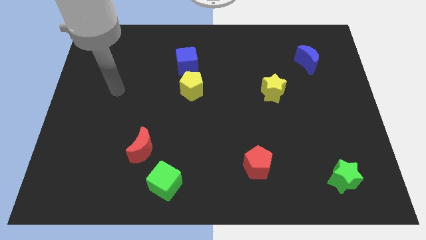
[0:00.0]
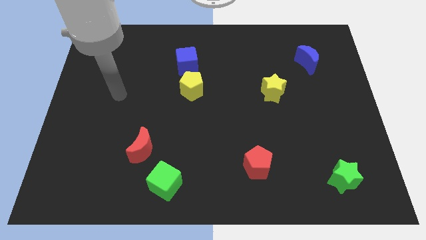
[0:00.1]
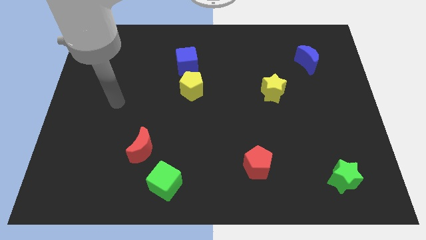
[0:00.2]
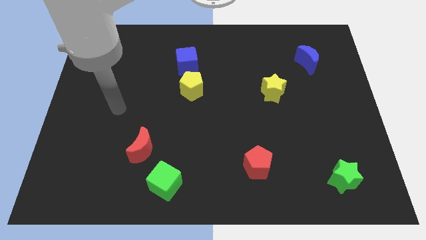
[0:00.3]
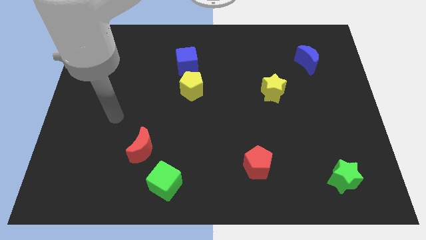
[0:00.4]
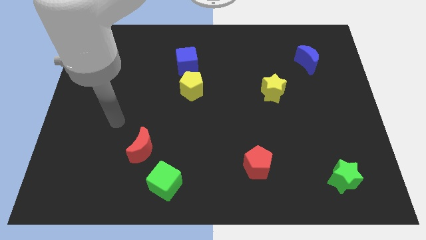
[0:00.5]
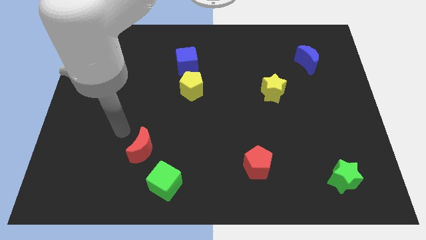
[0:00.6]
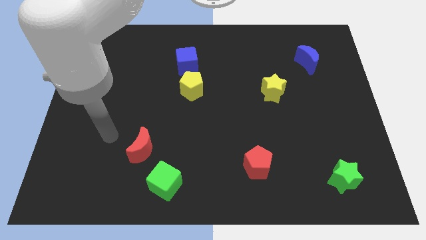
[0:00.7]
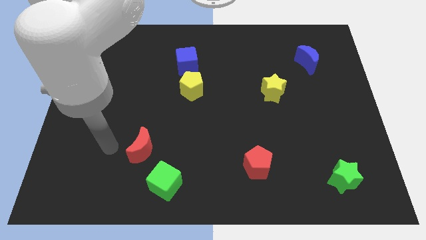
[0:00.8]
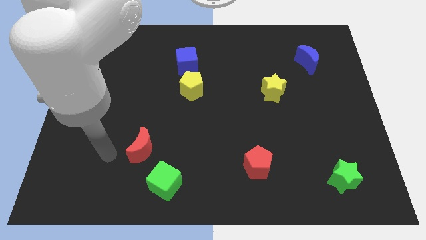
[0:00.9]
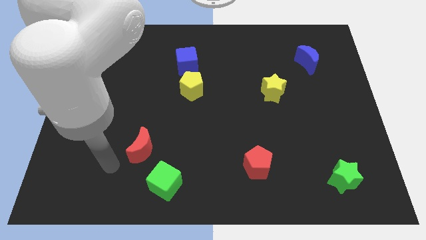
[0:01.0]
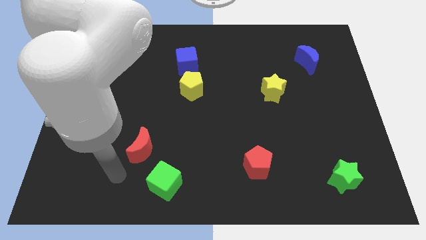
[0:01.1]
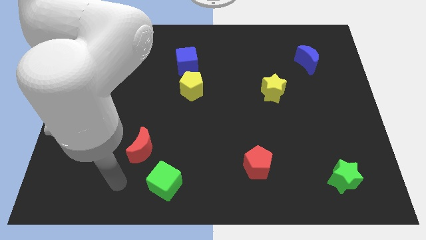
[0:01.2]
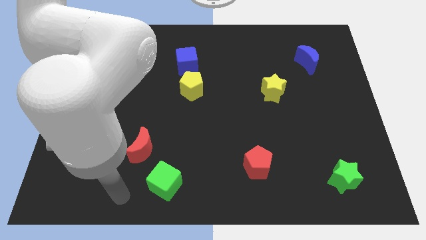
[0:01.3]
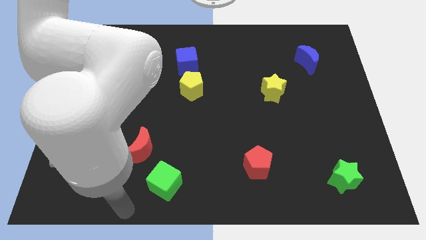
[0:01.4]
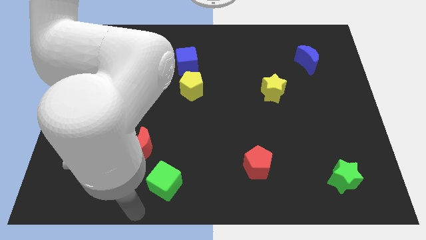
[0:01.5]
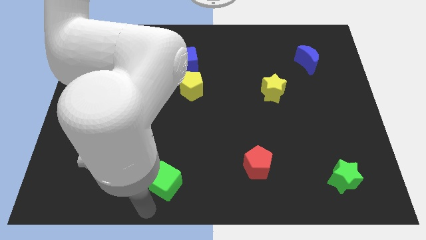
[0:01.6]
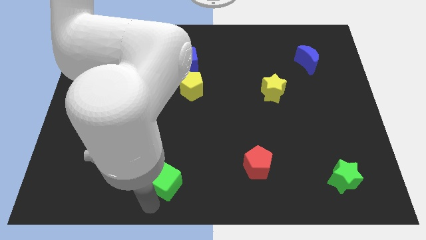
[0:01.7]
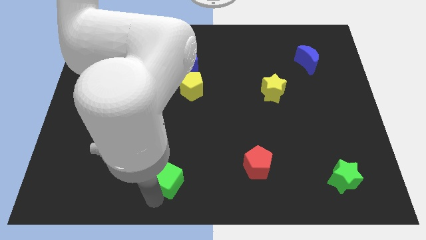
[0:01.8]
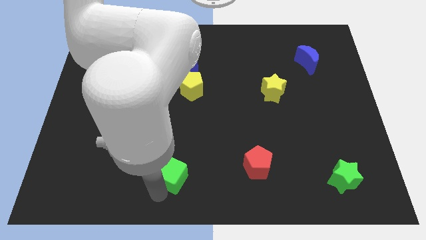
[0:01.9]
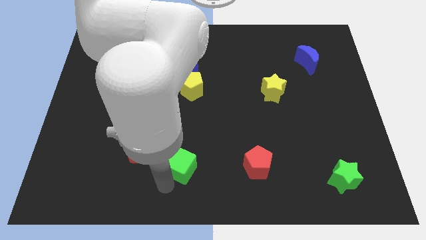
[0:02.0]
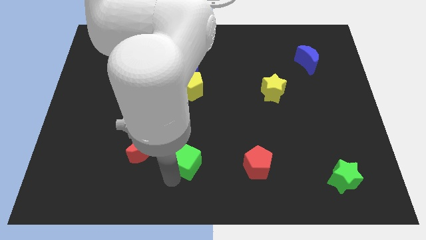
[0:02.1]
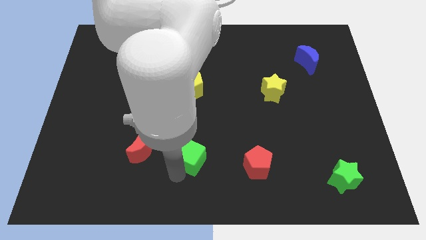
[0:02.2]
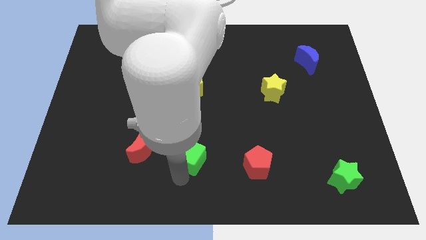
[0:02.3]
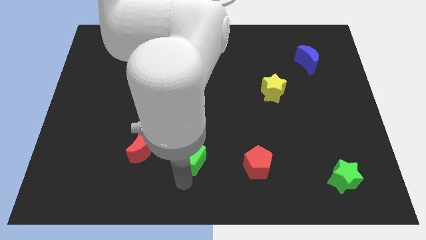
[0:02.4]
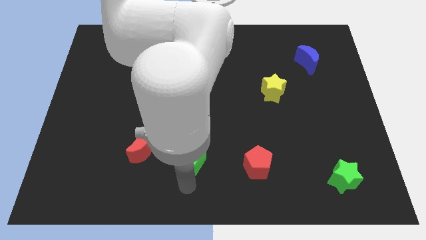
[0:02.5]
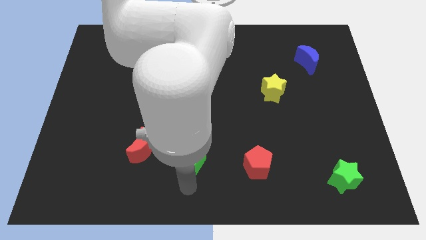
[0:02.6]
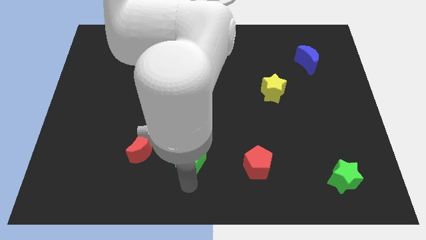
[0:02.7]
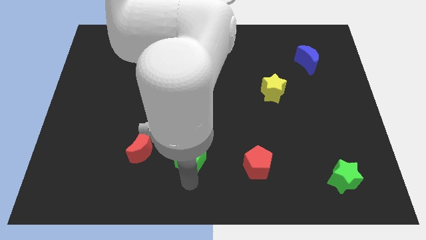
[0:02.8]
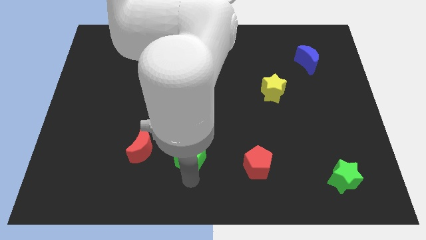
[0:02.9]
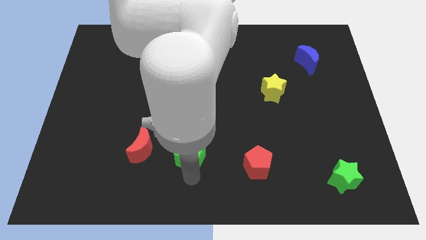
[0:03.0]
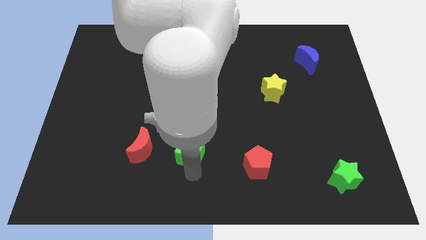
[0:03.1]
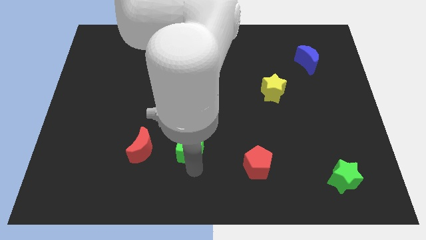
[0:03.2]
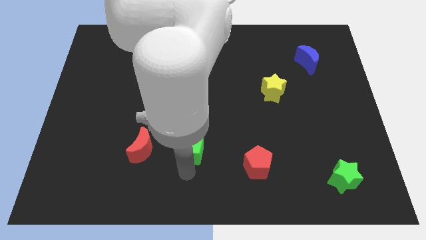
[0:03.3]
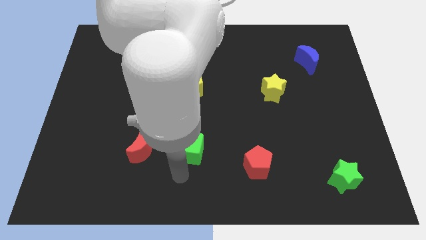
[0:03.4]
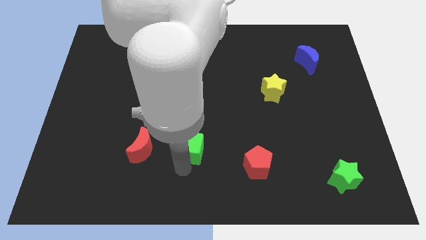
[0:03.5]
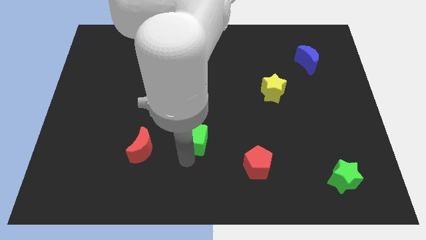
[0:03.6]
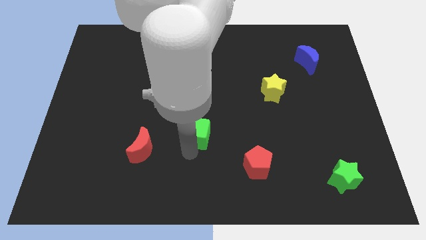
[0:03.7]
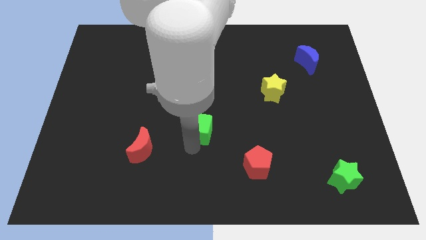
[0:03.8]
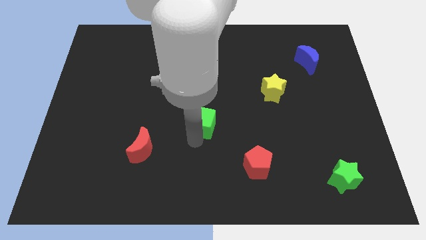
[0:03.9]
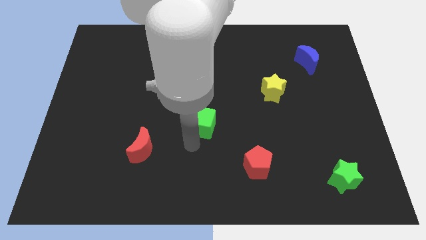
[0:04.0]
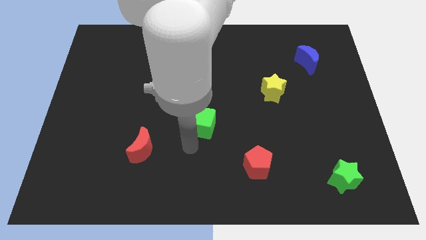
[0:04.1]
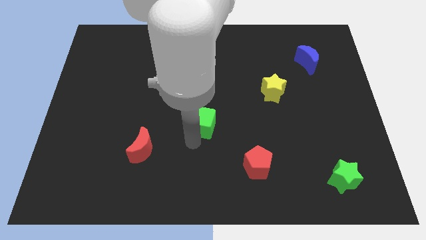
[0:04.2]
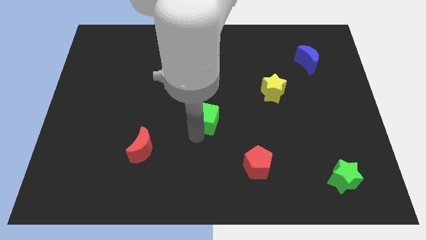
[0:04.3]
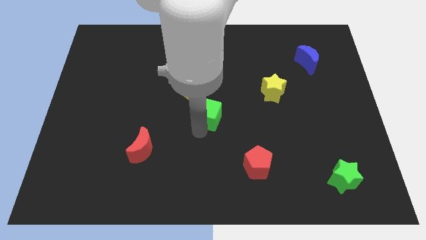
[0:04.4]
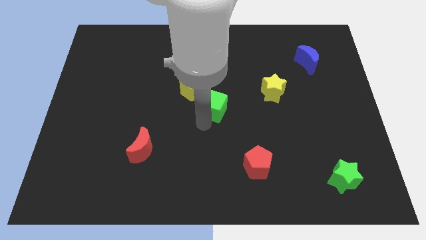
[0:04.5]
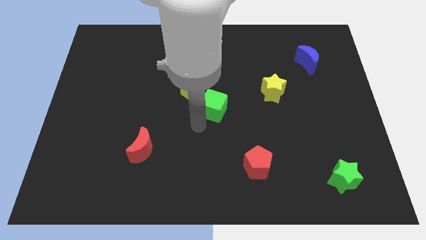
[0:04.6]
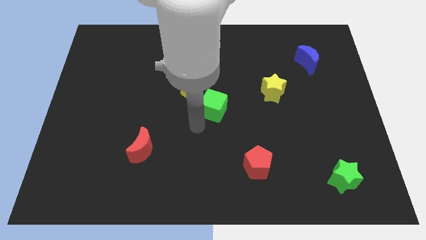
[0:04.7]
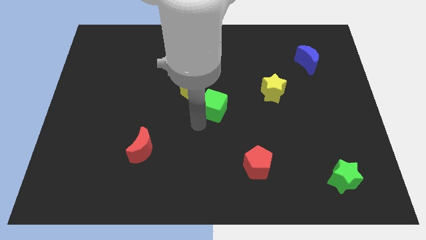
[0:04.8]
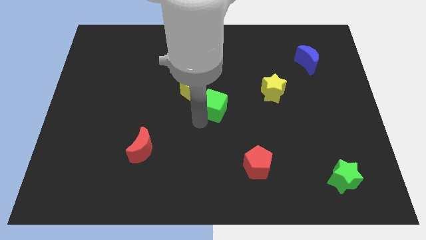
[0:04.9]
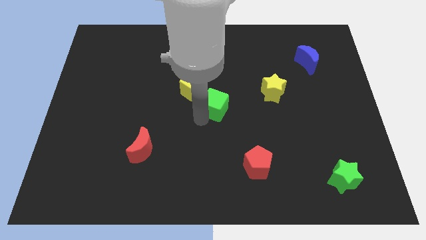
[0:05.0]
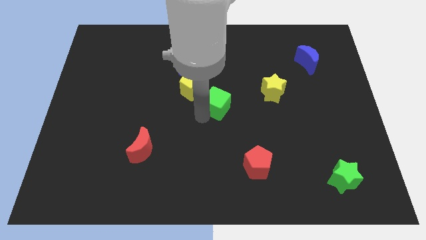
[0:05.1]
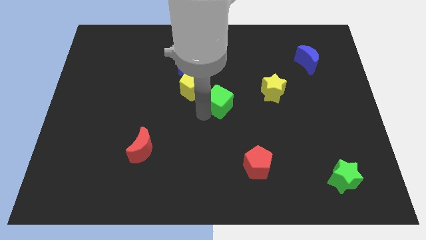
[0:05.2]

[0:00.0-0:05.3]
move the green cube just left of the yellow star

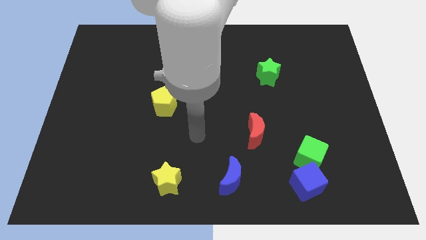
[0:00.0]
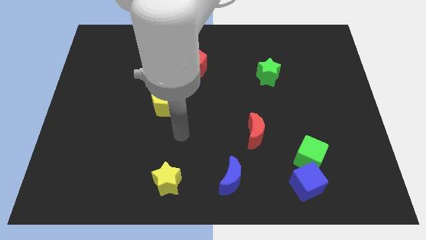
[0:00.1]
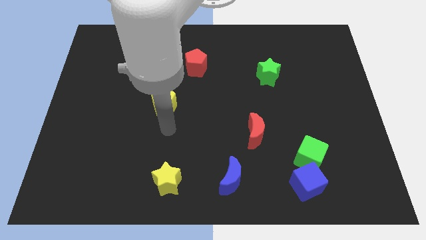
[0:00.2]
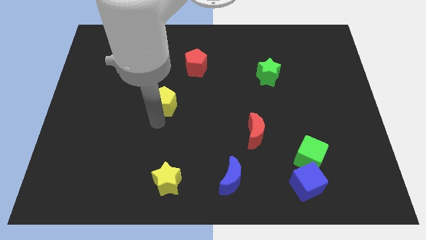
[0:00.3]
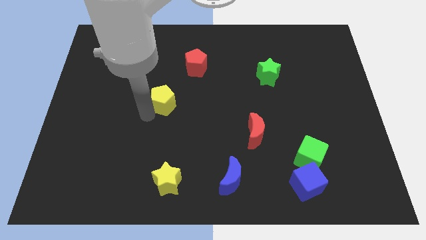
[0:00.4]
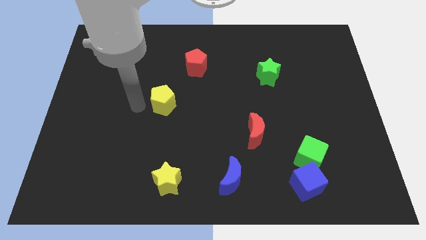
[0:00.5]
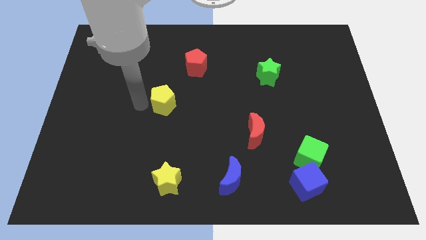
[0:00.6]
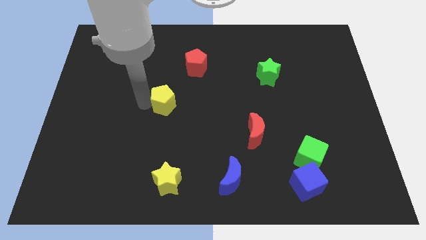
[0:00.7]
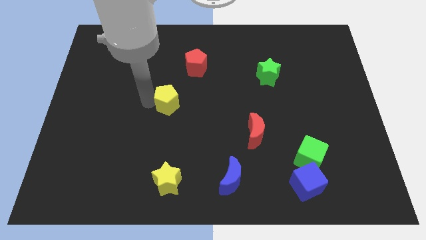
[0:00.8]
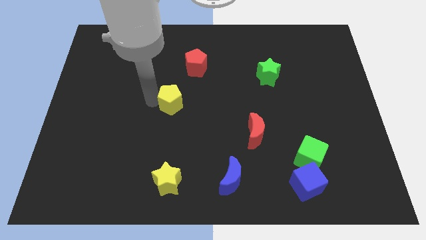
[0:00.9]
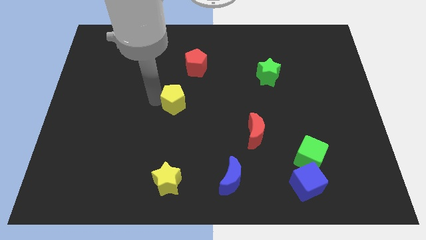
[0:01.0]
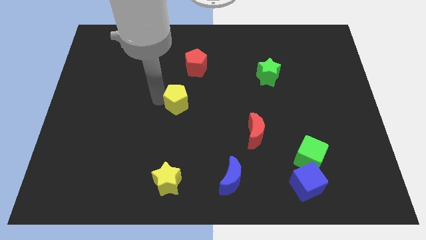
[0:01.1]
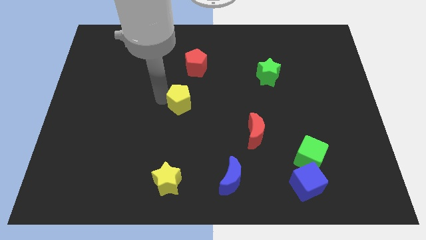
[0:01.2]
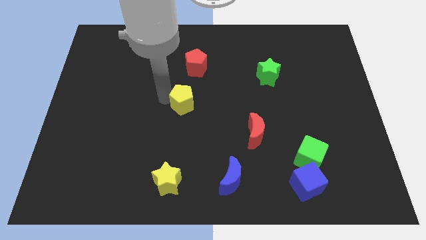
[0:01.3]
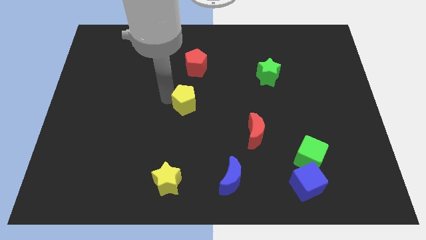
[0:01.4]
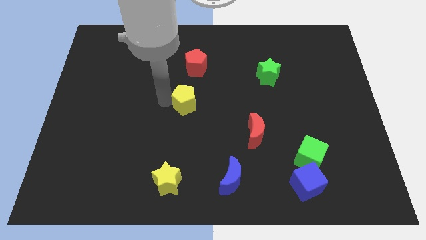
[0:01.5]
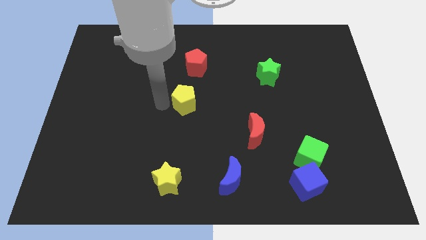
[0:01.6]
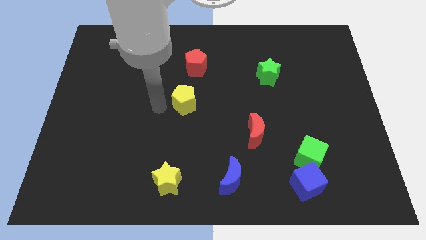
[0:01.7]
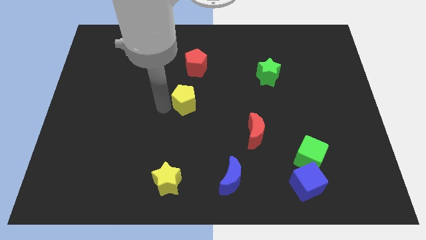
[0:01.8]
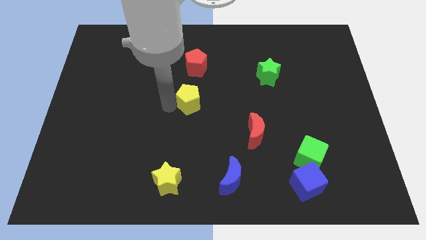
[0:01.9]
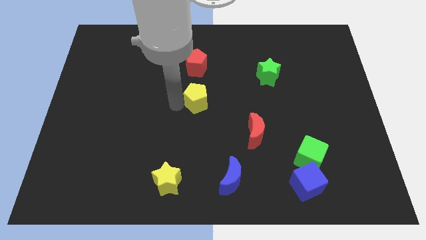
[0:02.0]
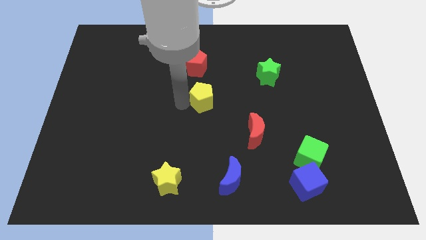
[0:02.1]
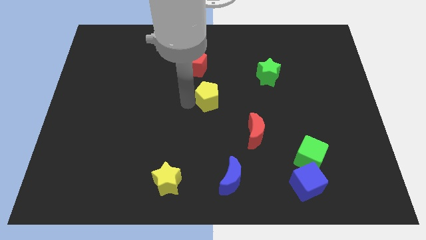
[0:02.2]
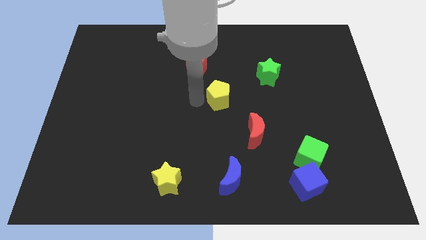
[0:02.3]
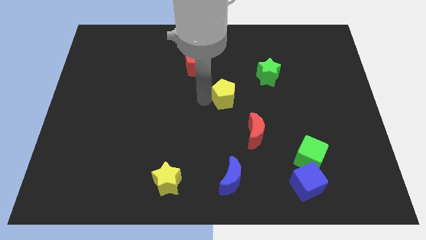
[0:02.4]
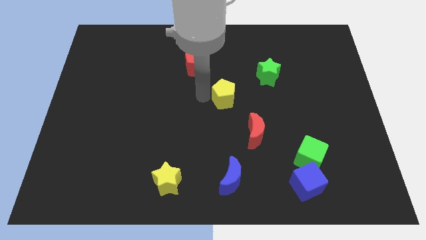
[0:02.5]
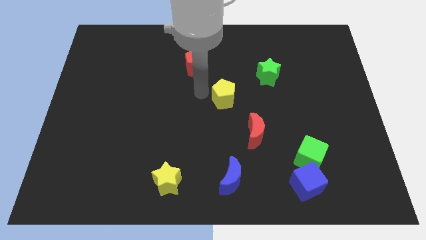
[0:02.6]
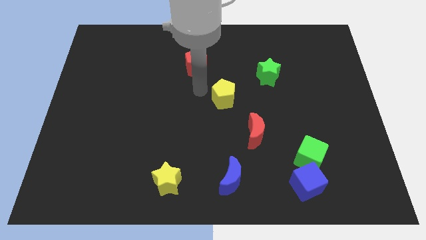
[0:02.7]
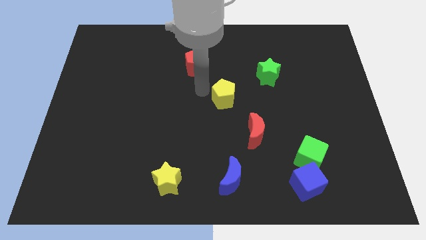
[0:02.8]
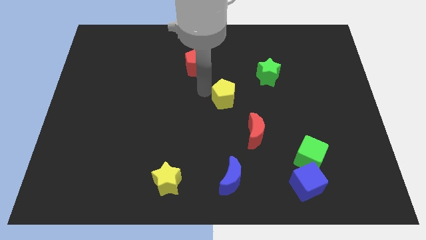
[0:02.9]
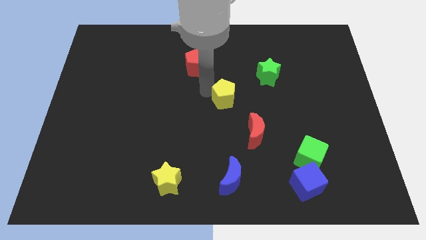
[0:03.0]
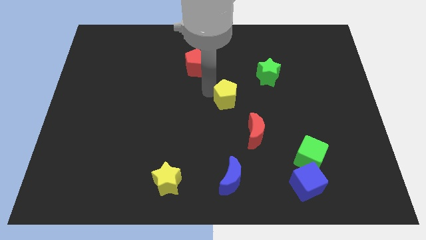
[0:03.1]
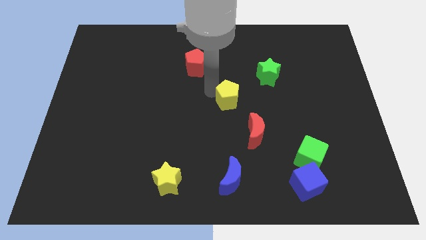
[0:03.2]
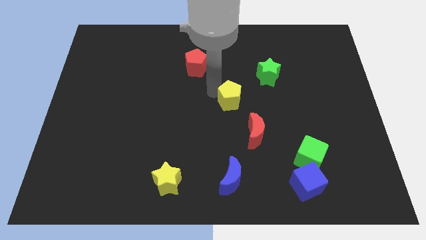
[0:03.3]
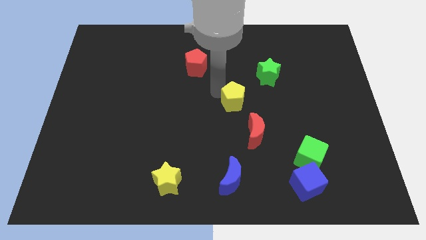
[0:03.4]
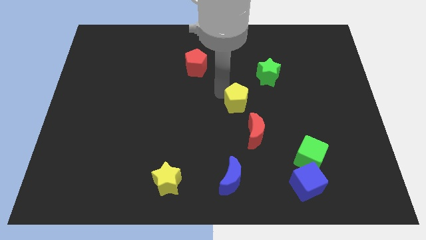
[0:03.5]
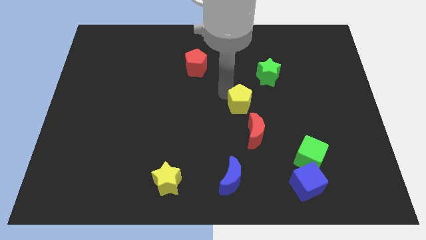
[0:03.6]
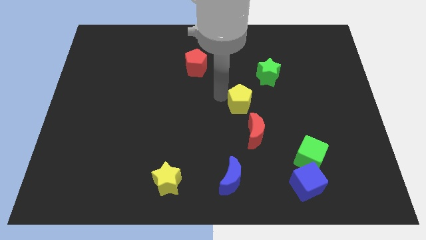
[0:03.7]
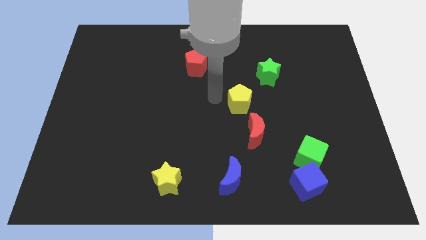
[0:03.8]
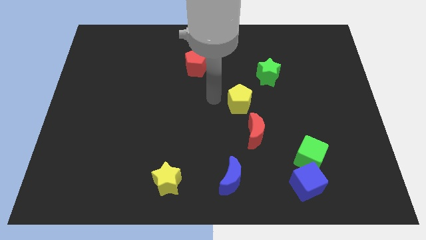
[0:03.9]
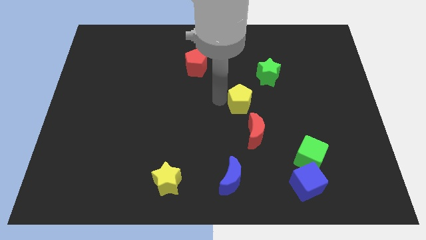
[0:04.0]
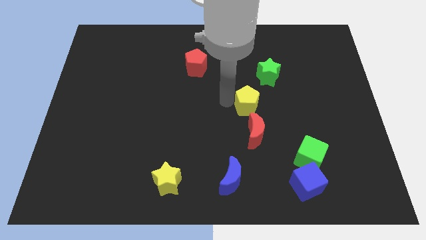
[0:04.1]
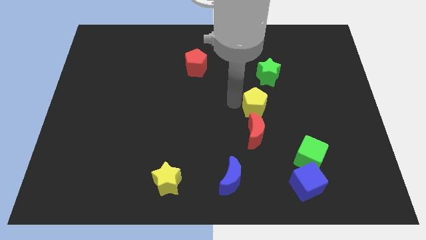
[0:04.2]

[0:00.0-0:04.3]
move the yellow pentagon below the green star
